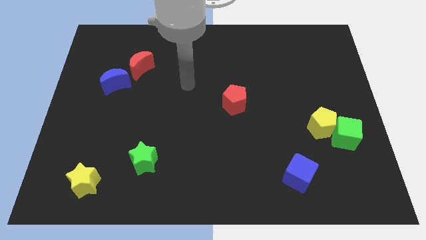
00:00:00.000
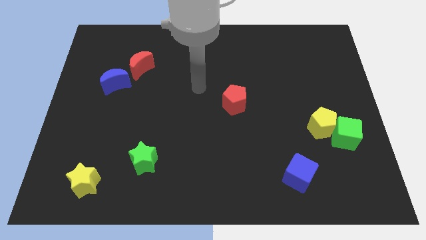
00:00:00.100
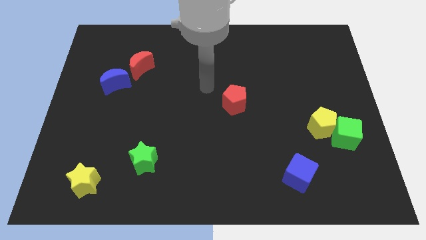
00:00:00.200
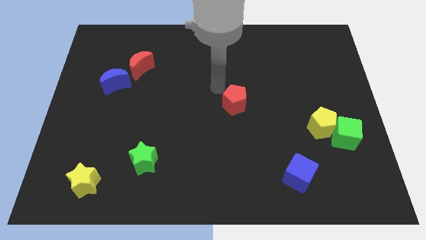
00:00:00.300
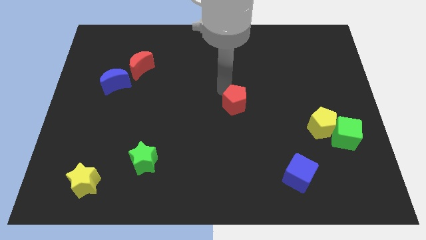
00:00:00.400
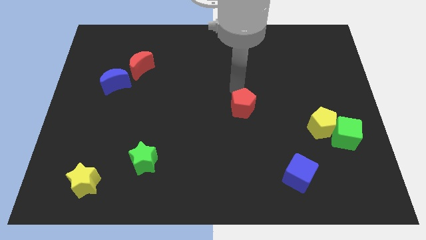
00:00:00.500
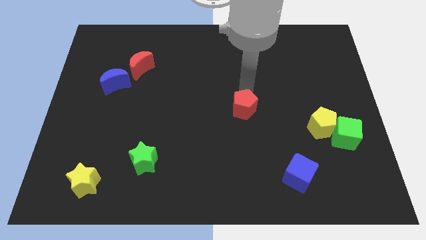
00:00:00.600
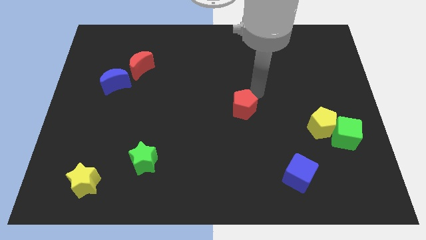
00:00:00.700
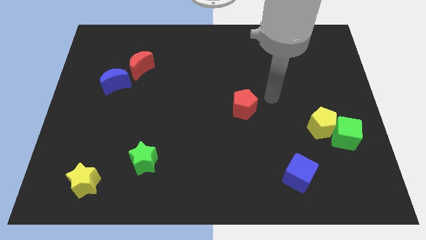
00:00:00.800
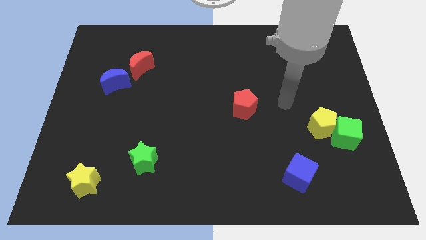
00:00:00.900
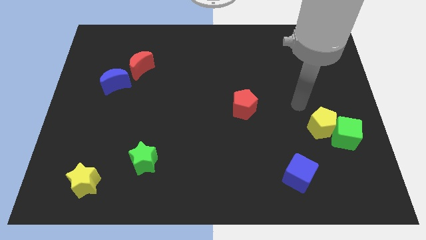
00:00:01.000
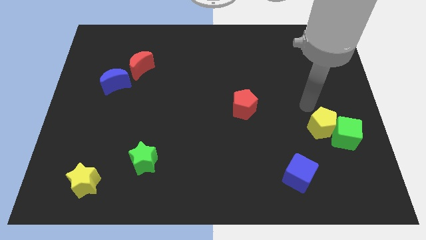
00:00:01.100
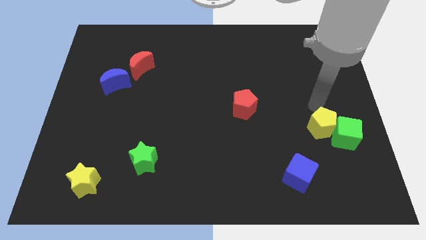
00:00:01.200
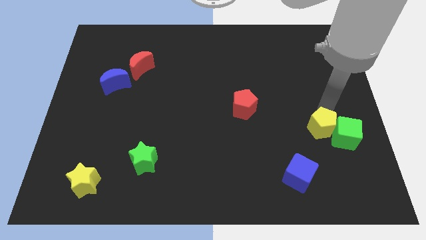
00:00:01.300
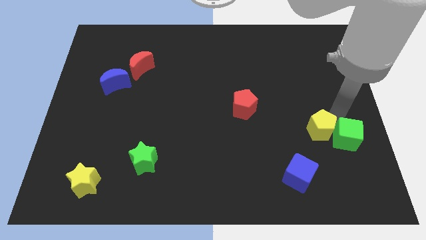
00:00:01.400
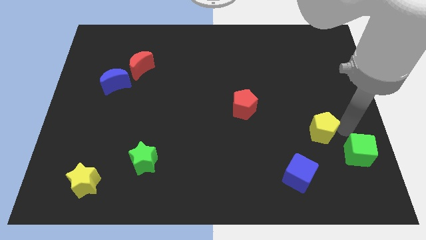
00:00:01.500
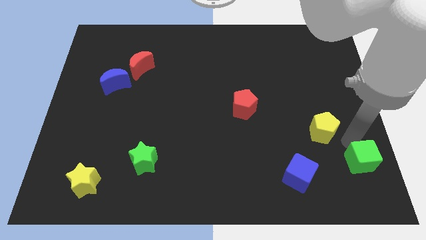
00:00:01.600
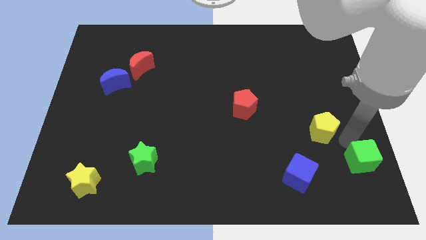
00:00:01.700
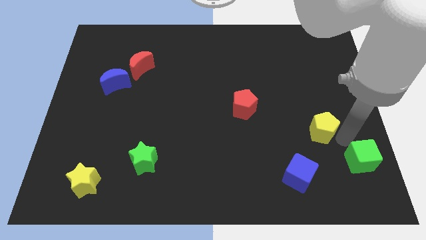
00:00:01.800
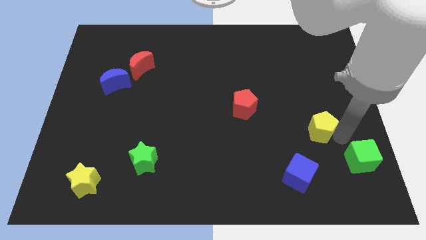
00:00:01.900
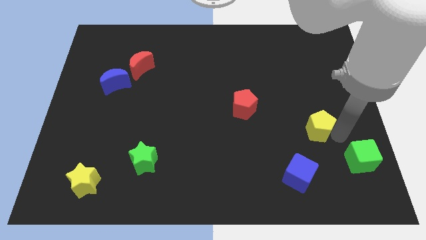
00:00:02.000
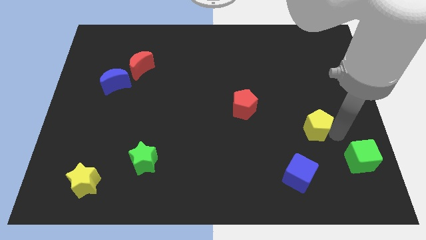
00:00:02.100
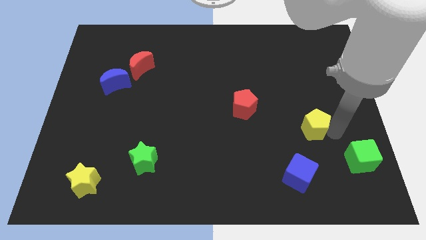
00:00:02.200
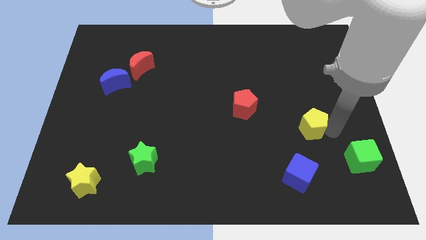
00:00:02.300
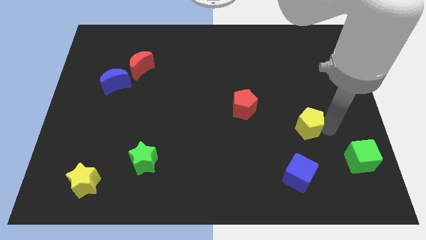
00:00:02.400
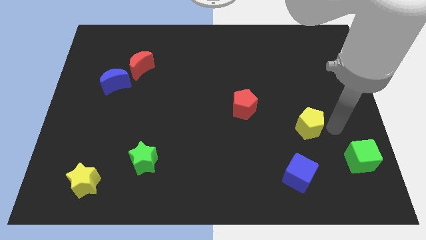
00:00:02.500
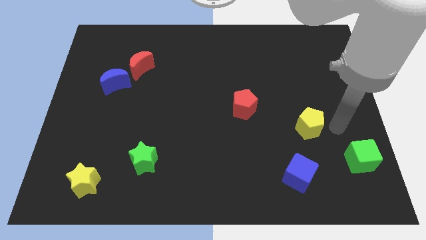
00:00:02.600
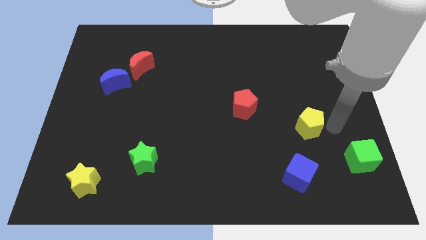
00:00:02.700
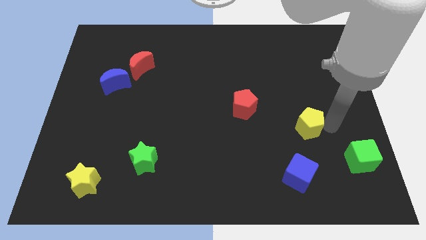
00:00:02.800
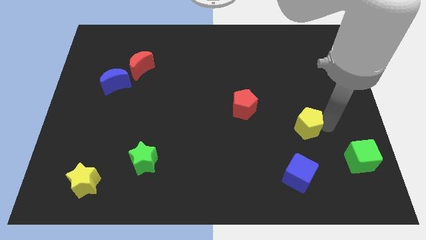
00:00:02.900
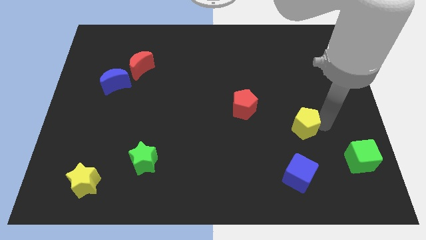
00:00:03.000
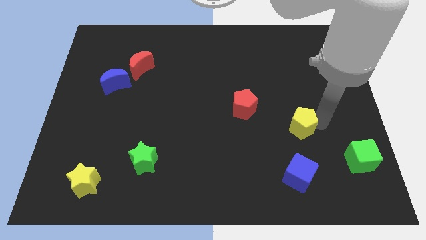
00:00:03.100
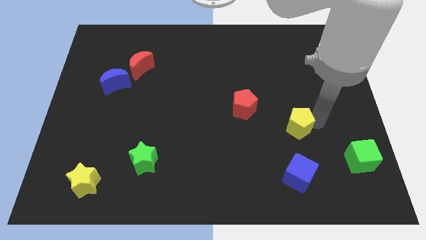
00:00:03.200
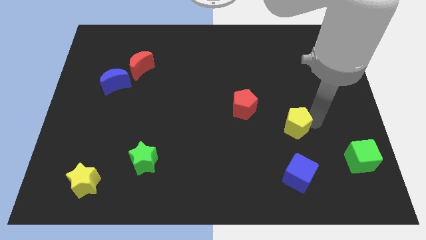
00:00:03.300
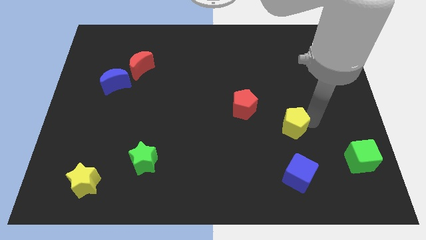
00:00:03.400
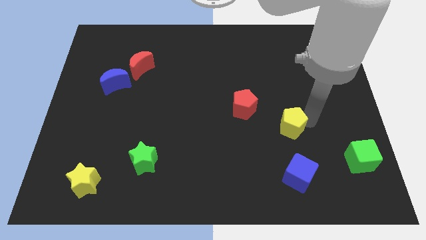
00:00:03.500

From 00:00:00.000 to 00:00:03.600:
move the yellow pentagon left a little

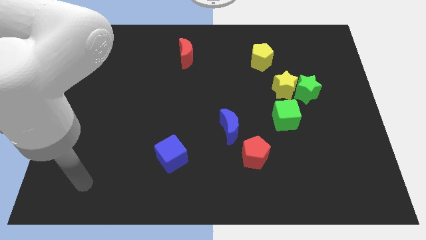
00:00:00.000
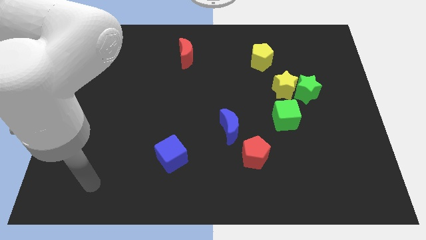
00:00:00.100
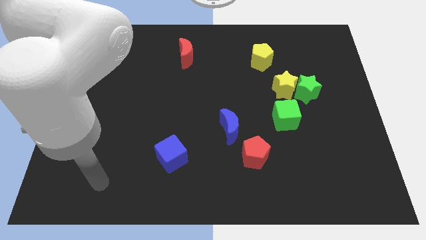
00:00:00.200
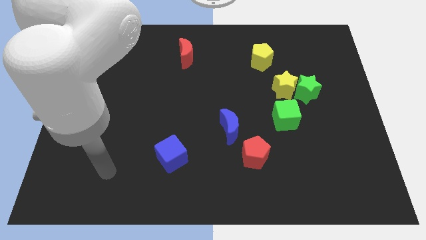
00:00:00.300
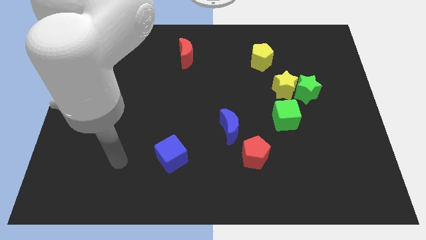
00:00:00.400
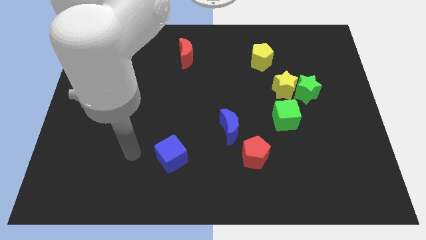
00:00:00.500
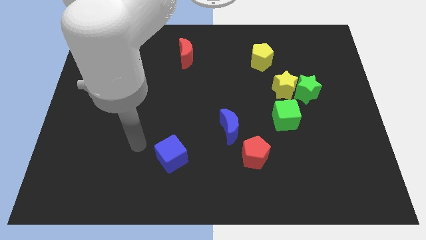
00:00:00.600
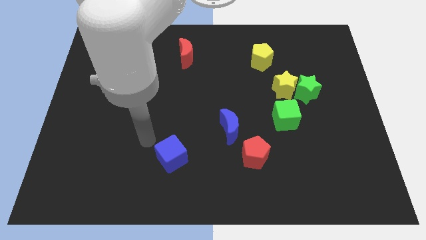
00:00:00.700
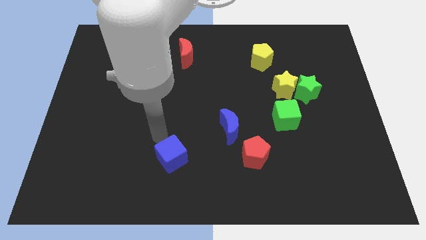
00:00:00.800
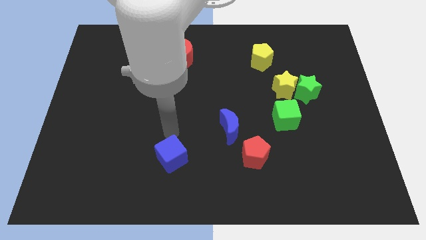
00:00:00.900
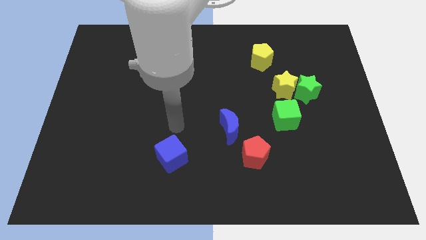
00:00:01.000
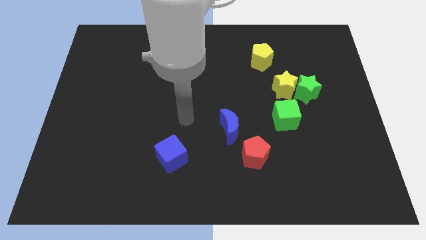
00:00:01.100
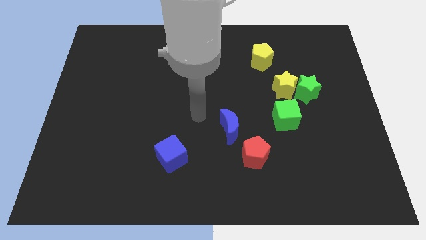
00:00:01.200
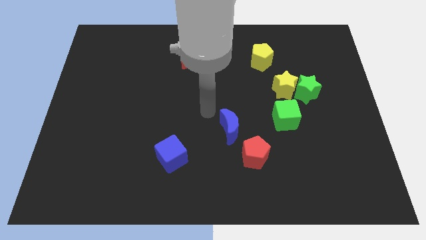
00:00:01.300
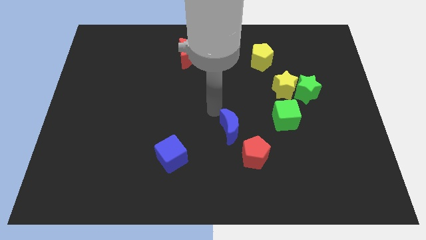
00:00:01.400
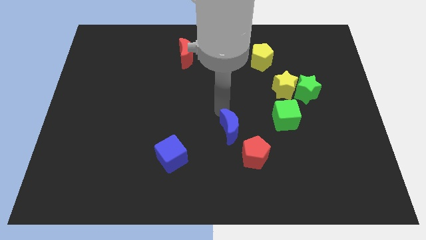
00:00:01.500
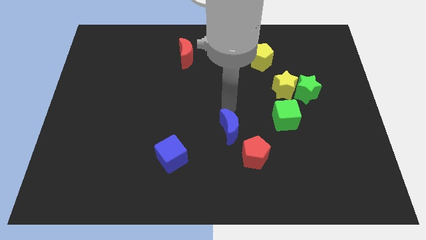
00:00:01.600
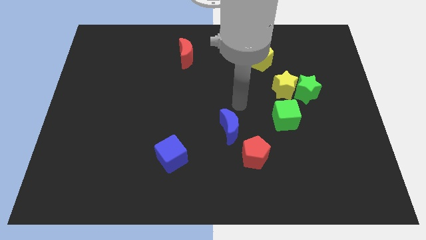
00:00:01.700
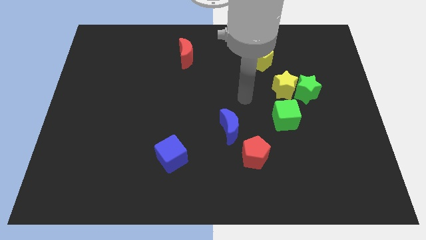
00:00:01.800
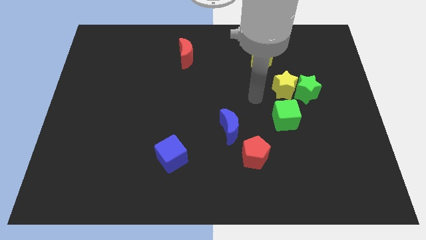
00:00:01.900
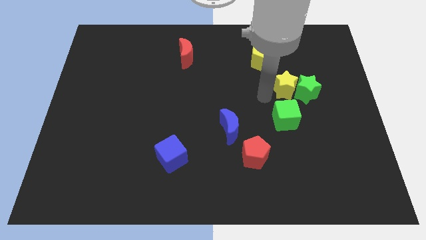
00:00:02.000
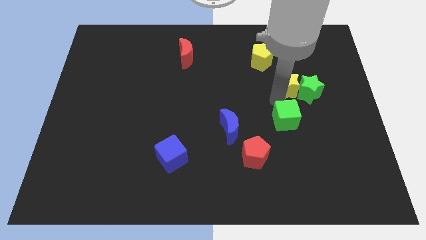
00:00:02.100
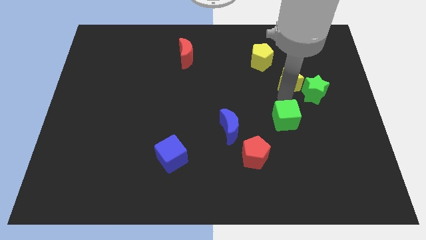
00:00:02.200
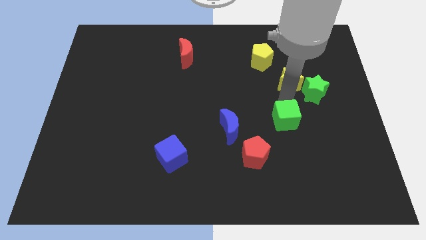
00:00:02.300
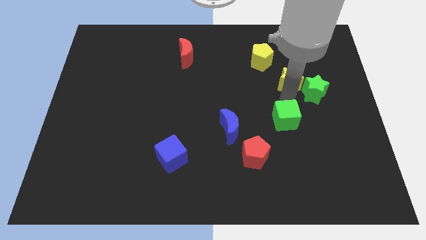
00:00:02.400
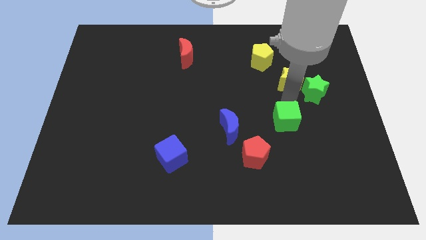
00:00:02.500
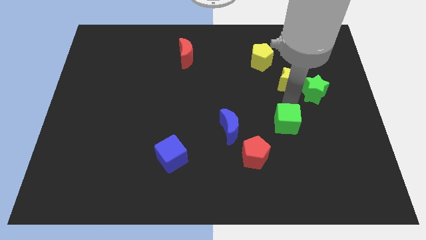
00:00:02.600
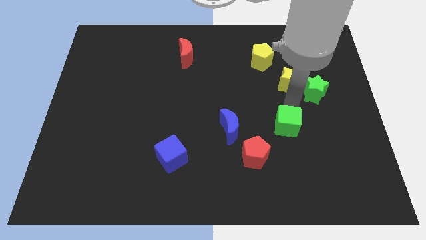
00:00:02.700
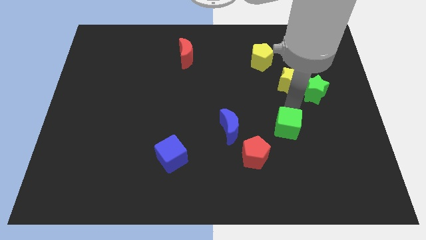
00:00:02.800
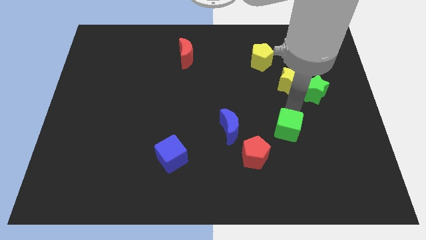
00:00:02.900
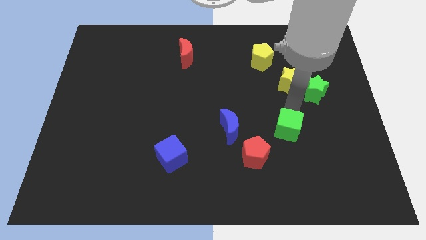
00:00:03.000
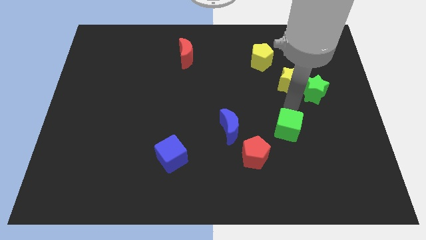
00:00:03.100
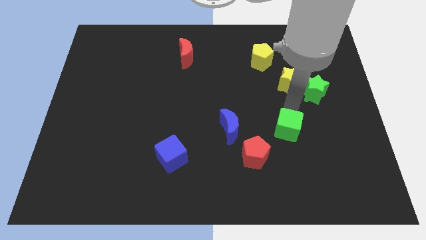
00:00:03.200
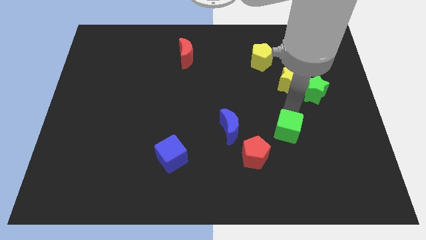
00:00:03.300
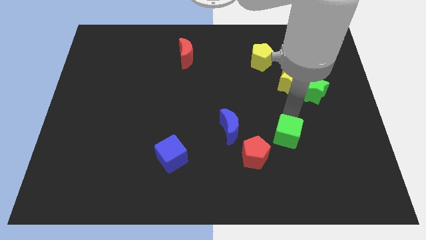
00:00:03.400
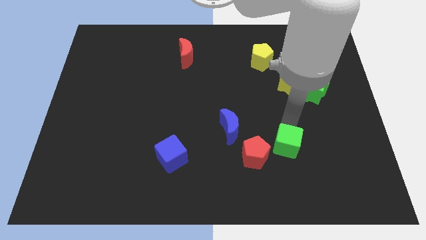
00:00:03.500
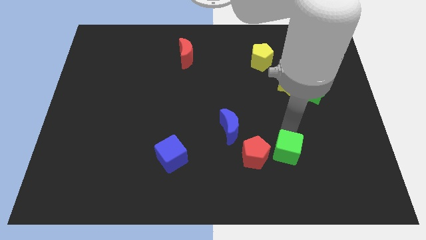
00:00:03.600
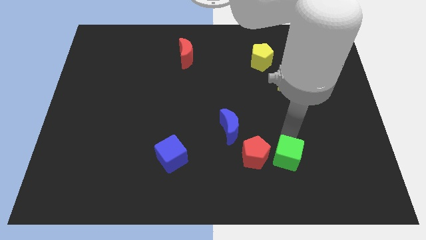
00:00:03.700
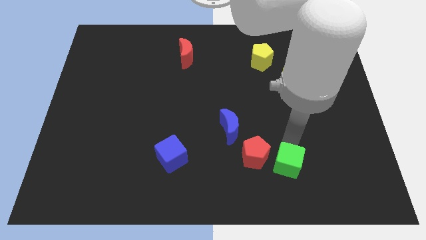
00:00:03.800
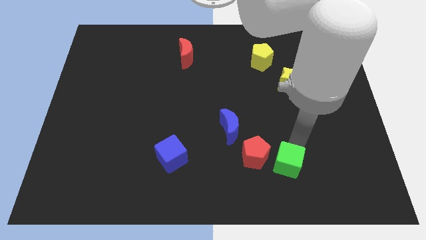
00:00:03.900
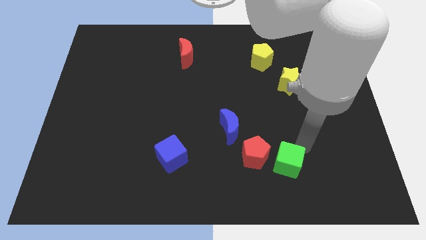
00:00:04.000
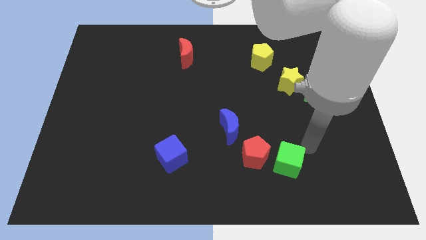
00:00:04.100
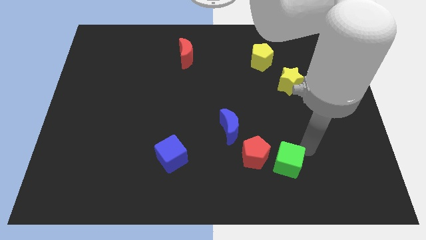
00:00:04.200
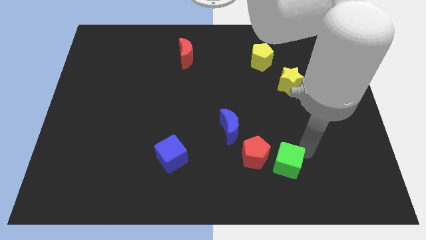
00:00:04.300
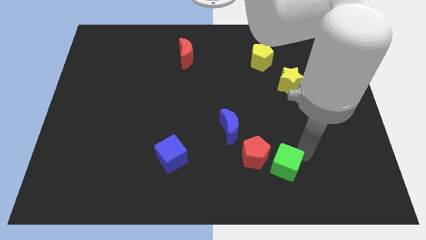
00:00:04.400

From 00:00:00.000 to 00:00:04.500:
move the green cube a little bit down and to the left

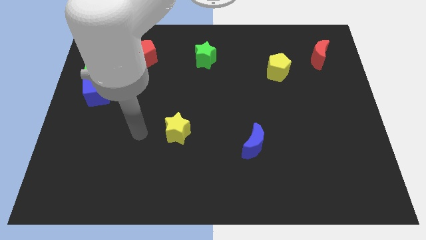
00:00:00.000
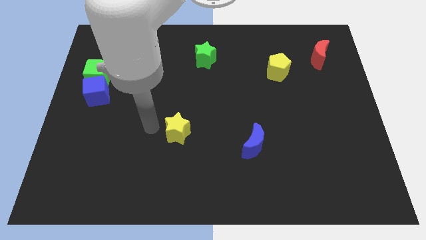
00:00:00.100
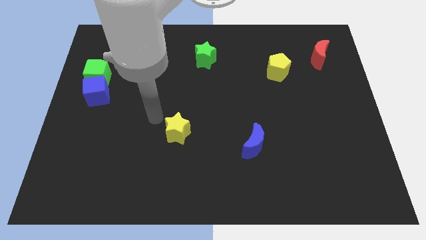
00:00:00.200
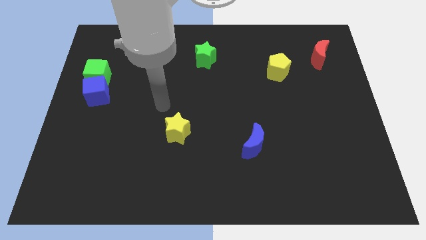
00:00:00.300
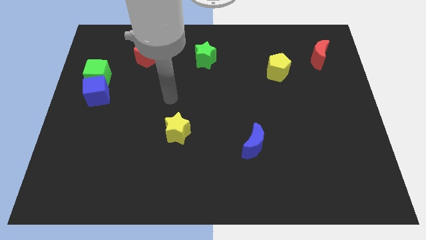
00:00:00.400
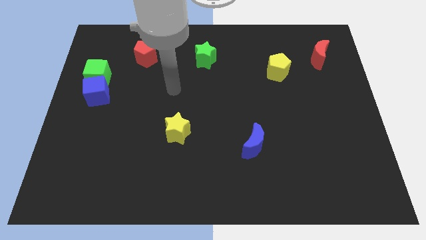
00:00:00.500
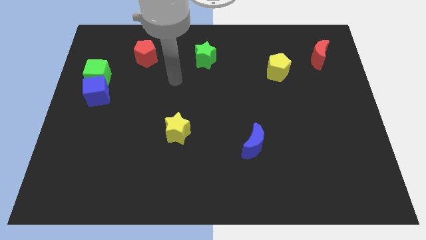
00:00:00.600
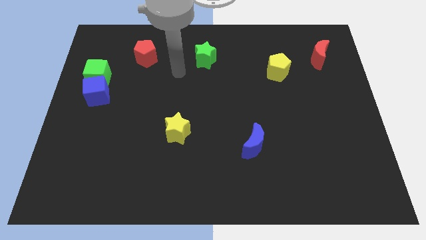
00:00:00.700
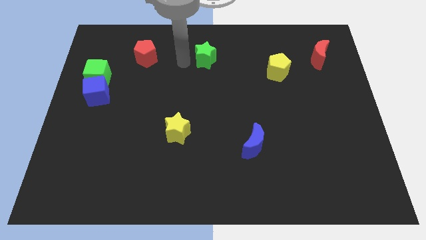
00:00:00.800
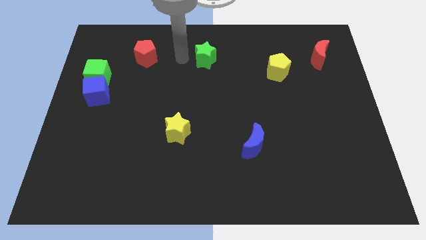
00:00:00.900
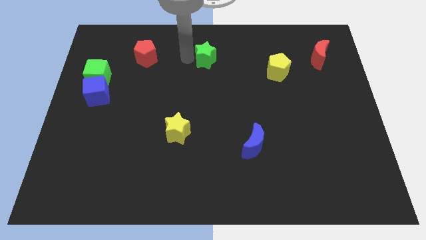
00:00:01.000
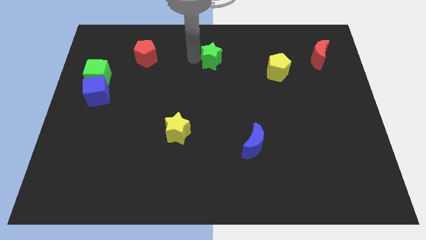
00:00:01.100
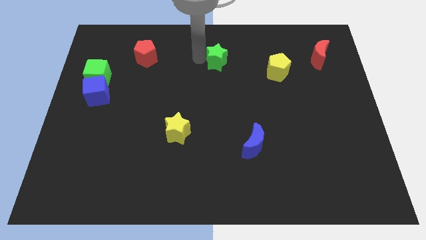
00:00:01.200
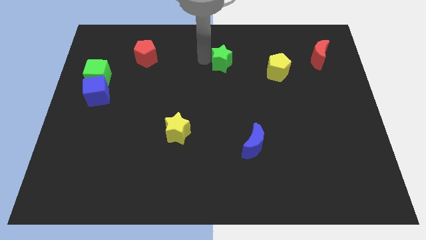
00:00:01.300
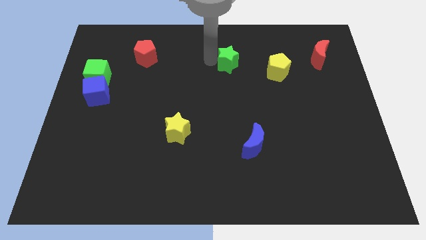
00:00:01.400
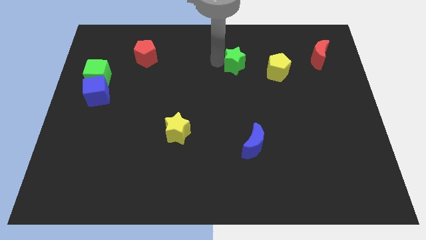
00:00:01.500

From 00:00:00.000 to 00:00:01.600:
slightly slide the green star right
